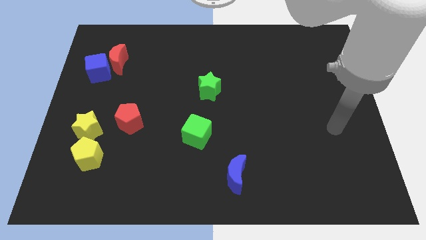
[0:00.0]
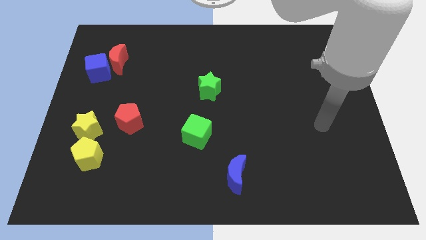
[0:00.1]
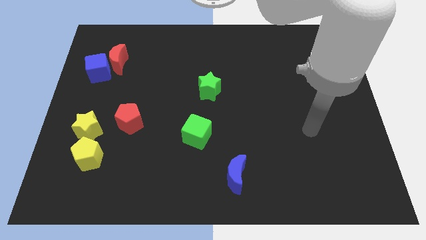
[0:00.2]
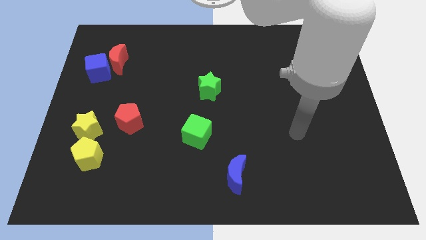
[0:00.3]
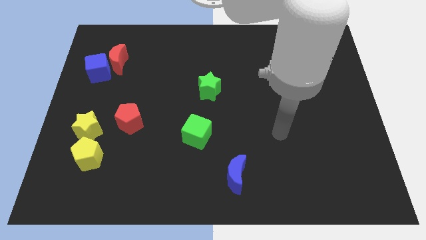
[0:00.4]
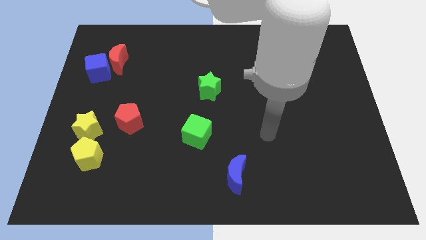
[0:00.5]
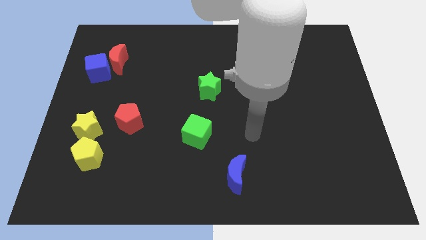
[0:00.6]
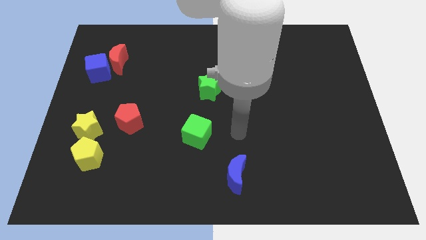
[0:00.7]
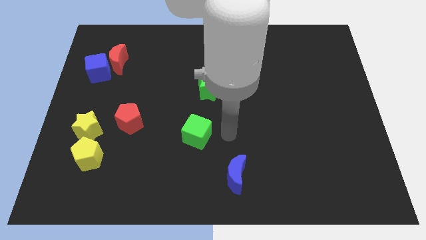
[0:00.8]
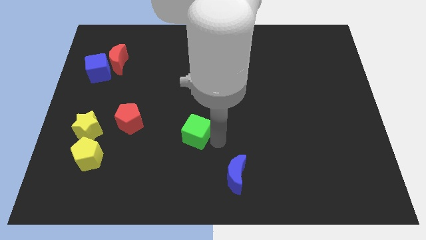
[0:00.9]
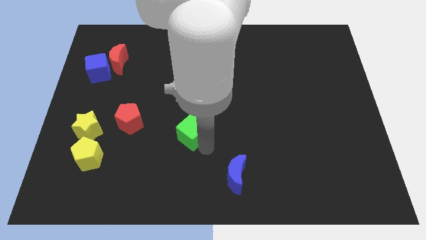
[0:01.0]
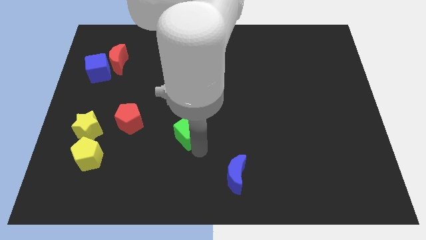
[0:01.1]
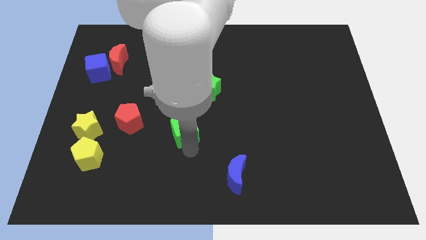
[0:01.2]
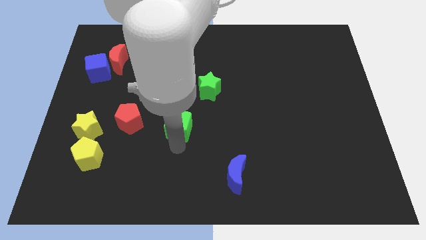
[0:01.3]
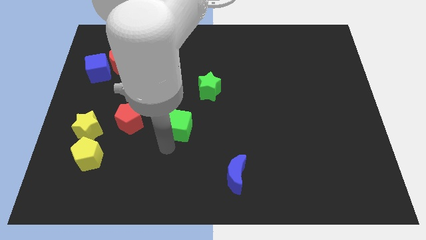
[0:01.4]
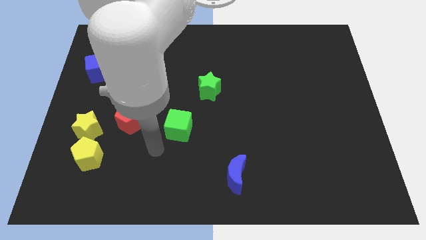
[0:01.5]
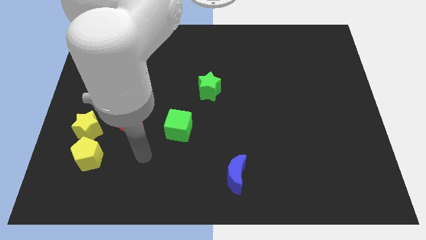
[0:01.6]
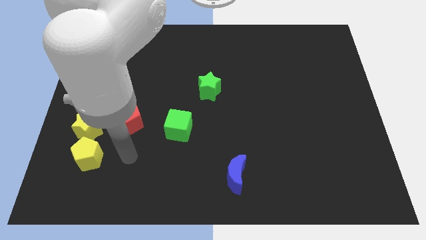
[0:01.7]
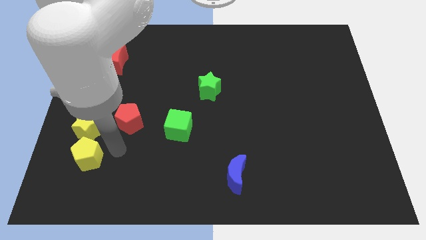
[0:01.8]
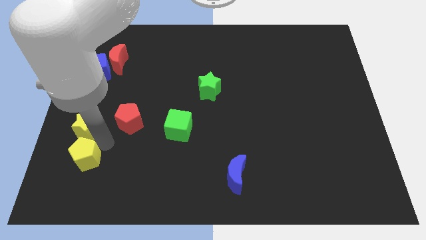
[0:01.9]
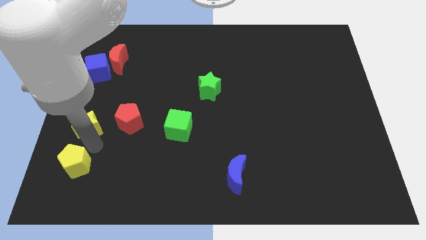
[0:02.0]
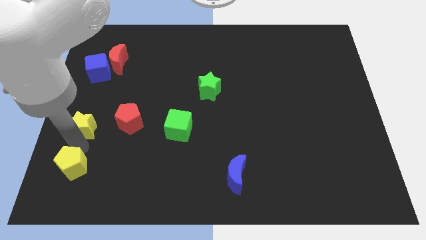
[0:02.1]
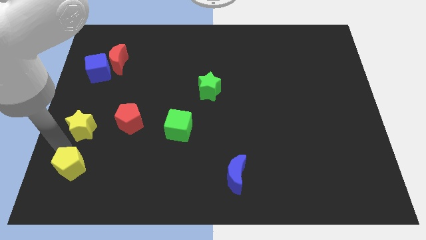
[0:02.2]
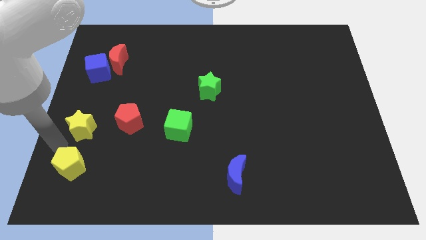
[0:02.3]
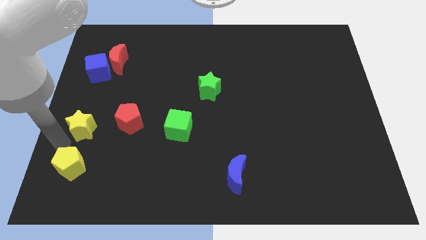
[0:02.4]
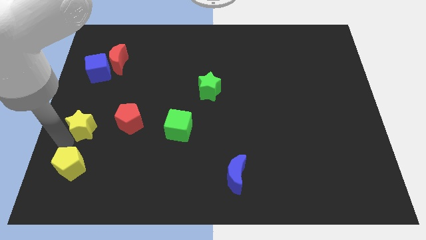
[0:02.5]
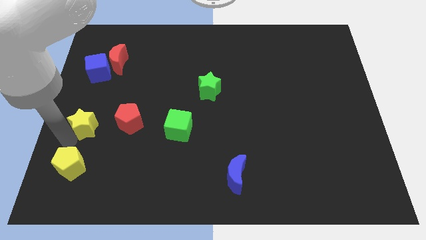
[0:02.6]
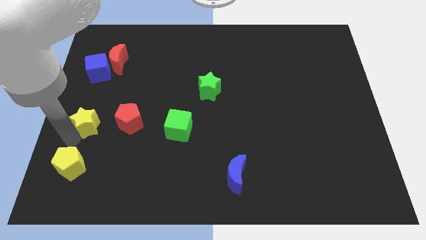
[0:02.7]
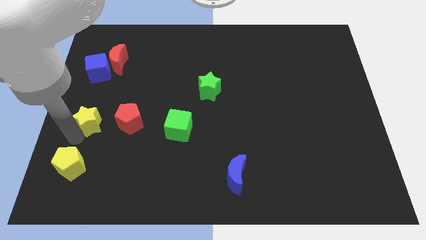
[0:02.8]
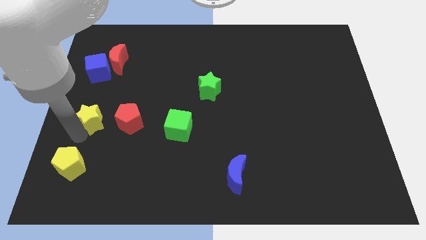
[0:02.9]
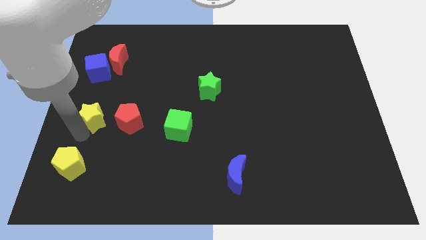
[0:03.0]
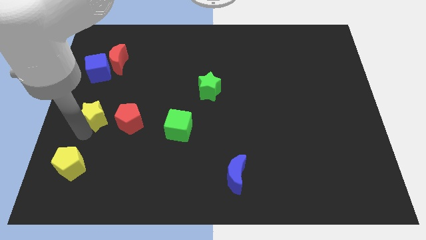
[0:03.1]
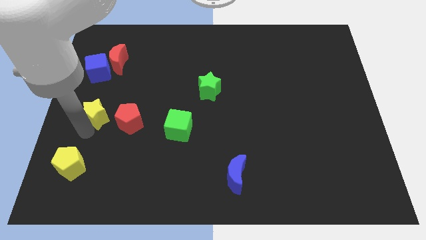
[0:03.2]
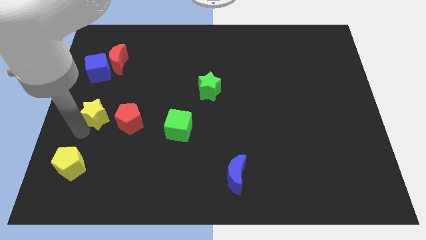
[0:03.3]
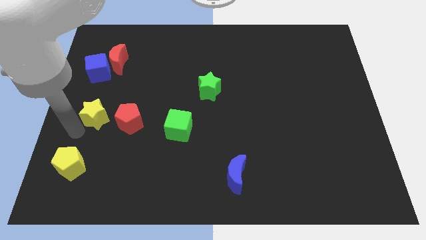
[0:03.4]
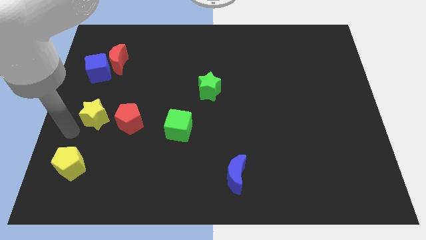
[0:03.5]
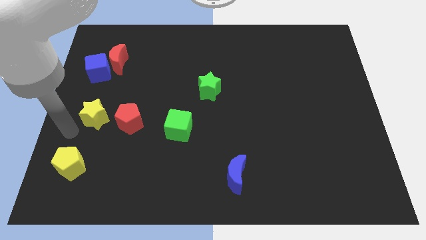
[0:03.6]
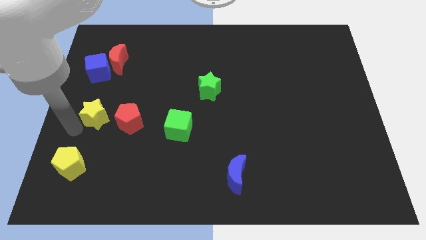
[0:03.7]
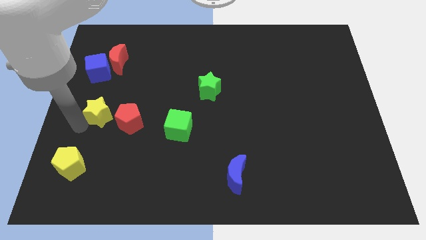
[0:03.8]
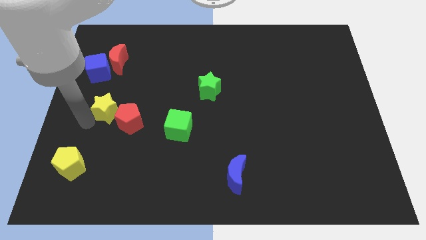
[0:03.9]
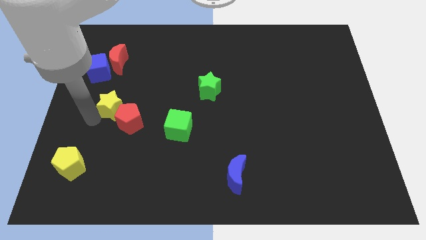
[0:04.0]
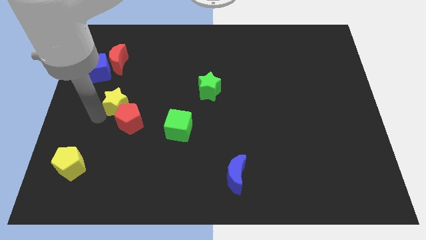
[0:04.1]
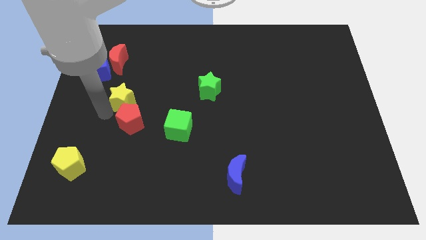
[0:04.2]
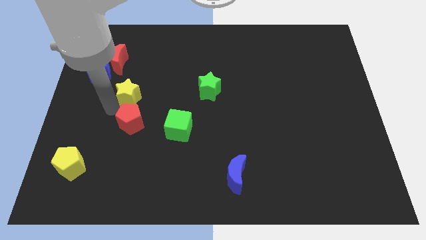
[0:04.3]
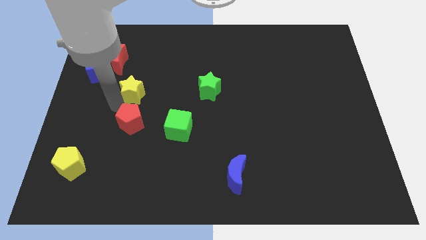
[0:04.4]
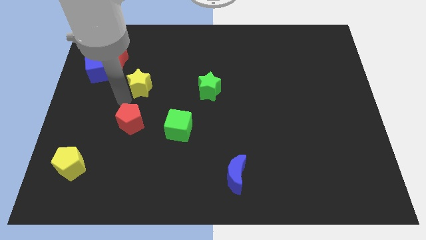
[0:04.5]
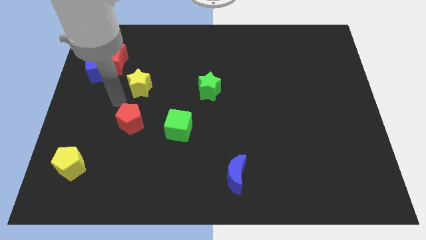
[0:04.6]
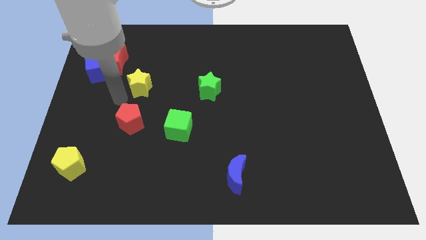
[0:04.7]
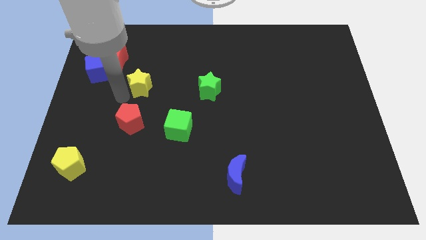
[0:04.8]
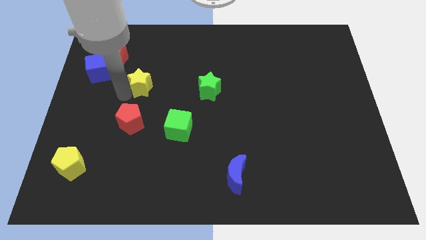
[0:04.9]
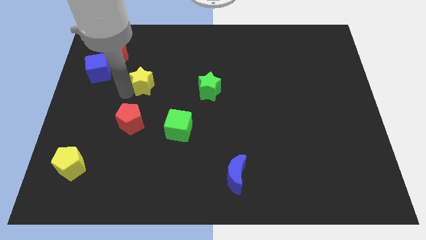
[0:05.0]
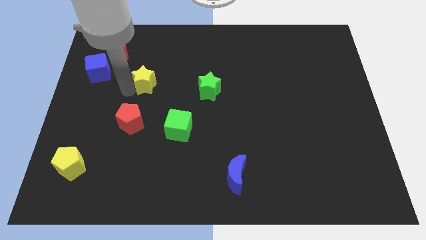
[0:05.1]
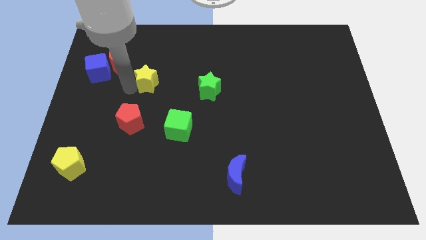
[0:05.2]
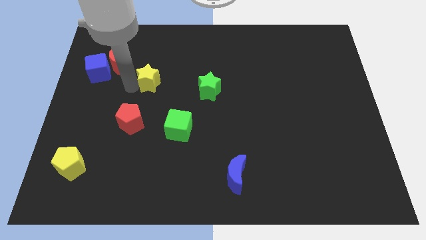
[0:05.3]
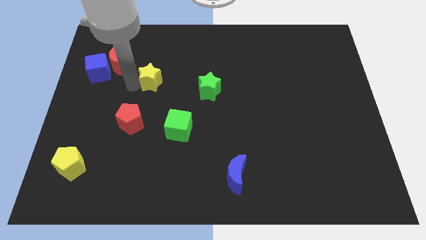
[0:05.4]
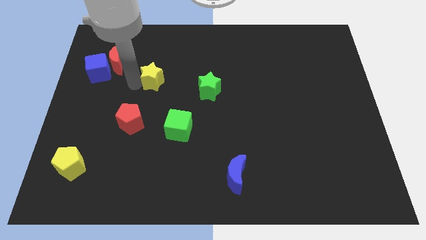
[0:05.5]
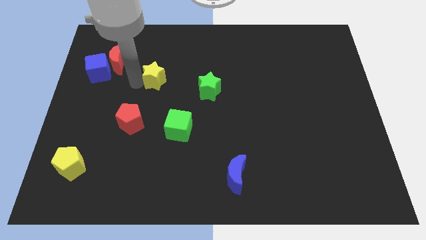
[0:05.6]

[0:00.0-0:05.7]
push the yellow star up and right

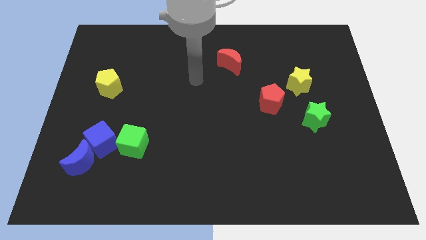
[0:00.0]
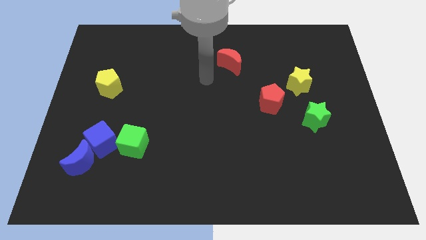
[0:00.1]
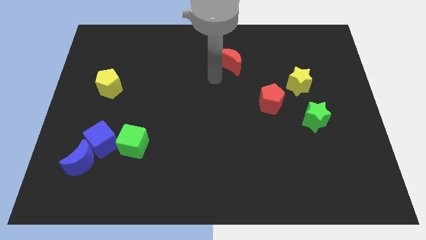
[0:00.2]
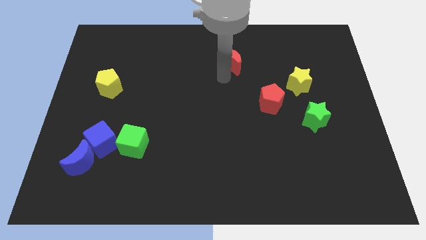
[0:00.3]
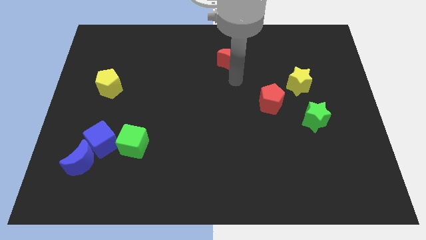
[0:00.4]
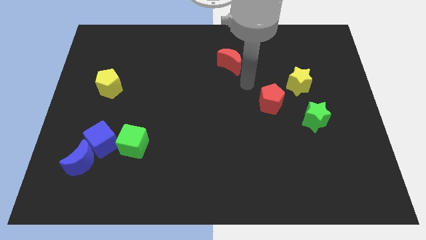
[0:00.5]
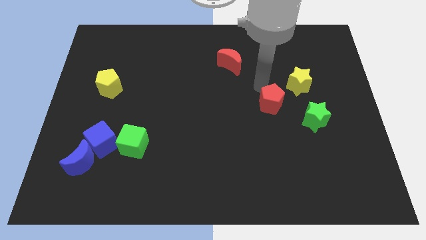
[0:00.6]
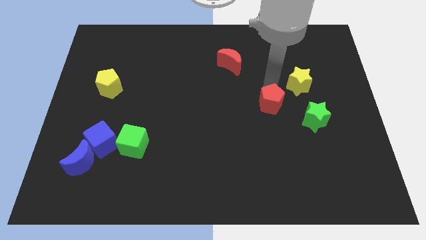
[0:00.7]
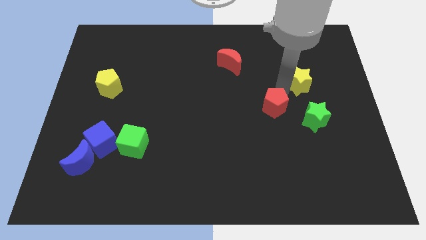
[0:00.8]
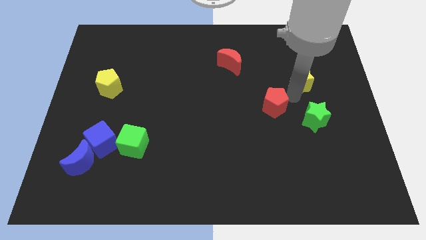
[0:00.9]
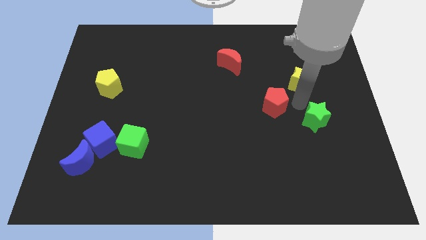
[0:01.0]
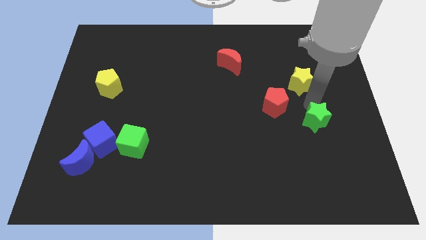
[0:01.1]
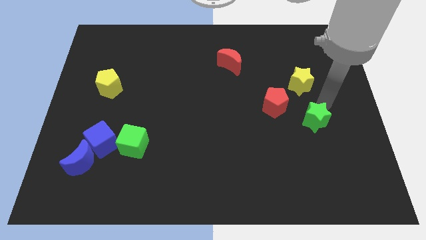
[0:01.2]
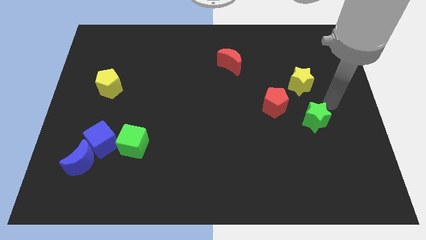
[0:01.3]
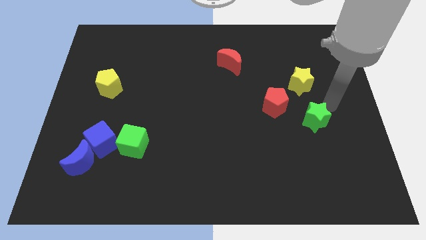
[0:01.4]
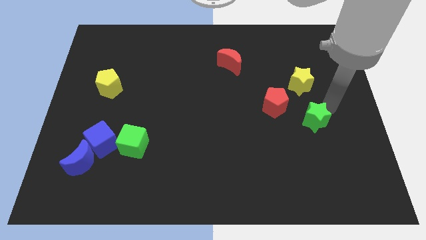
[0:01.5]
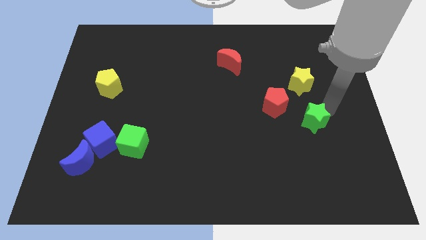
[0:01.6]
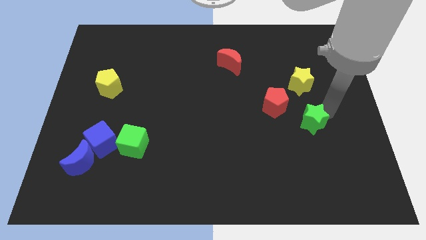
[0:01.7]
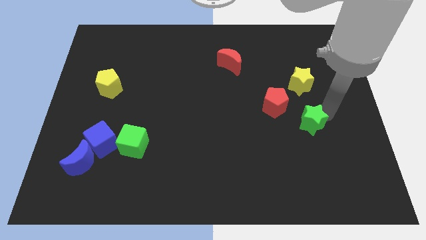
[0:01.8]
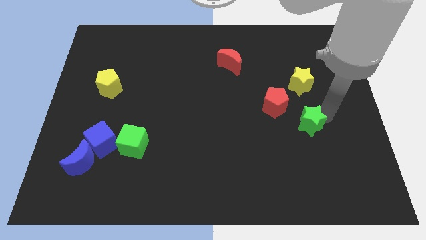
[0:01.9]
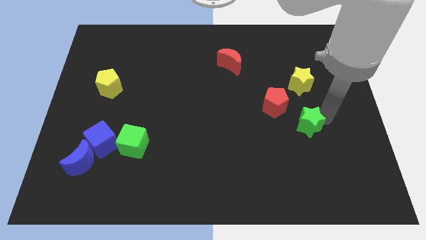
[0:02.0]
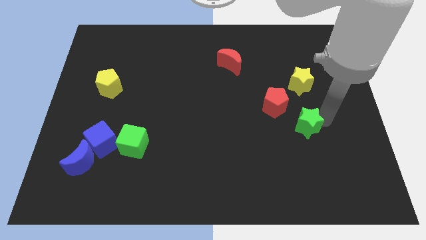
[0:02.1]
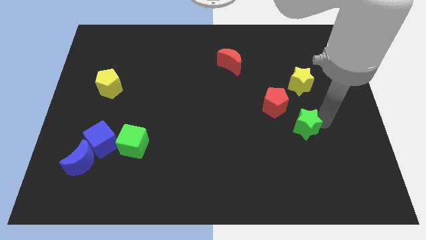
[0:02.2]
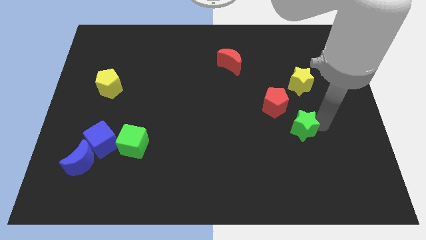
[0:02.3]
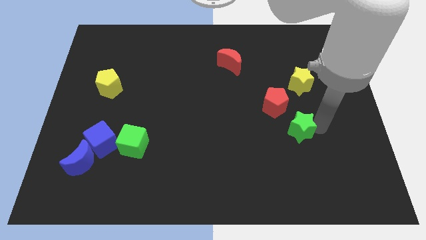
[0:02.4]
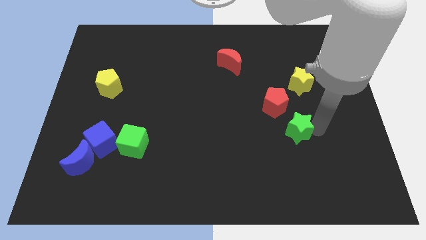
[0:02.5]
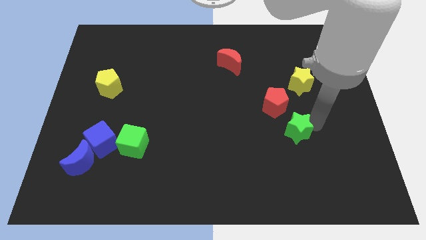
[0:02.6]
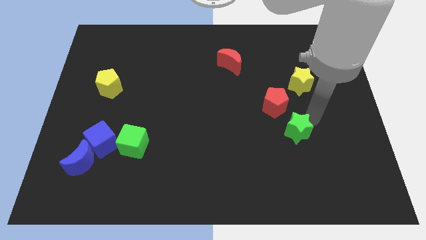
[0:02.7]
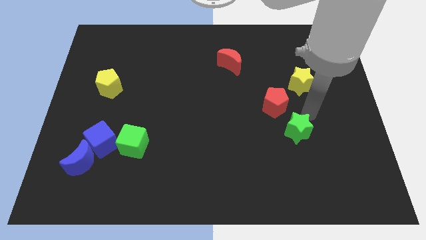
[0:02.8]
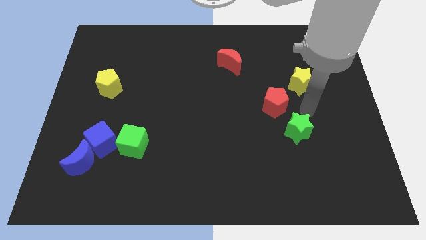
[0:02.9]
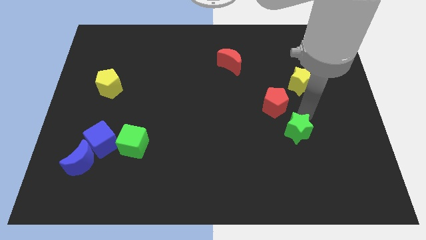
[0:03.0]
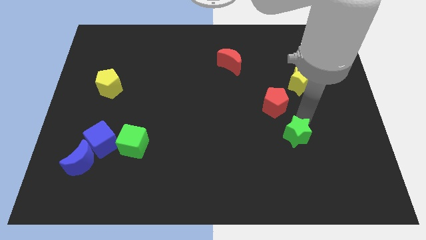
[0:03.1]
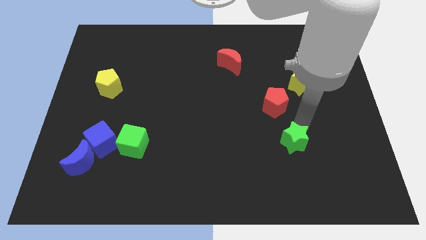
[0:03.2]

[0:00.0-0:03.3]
slide the green star a bit diagonally downwards and left
